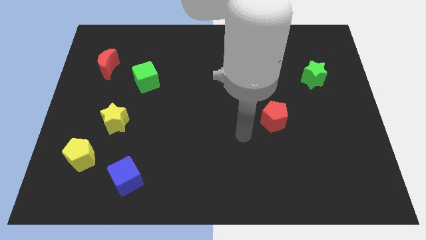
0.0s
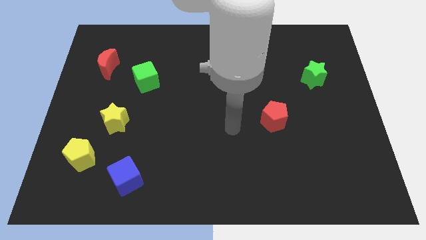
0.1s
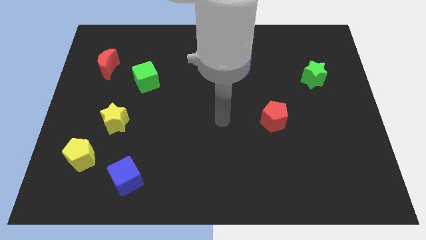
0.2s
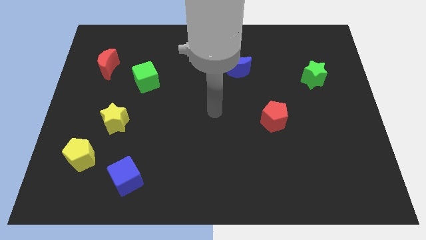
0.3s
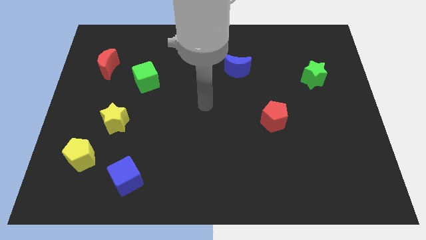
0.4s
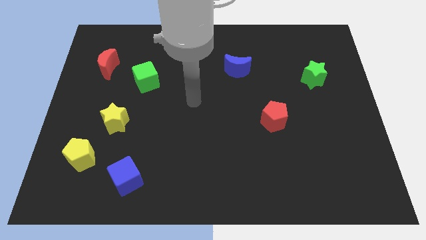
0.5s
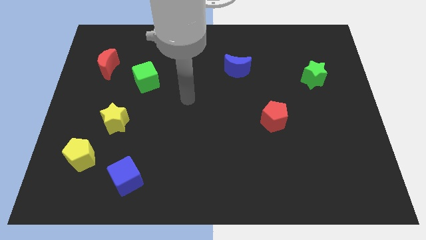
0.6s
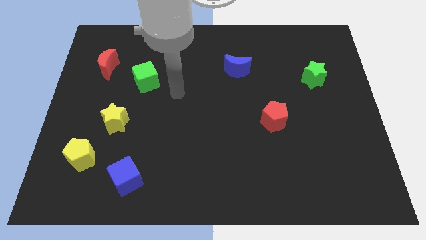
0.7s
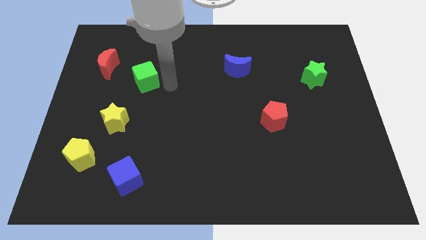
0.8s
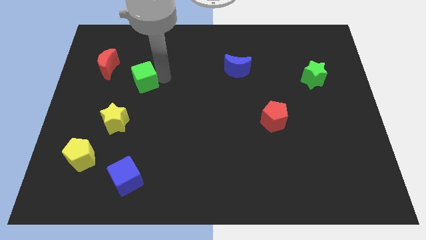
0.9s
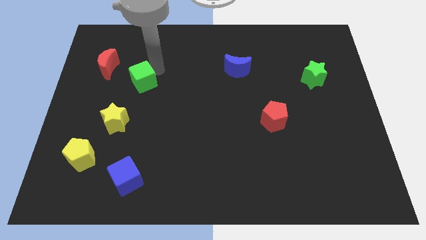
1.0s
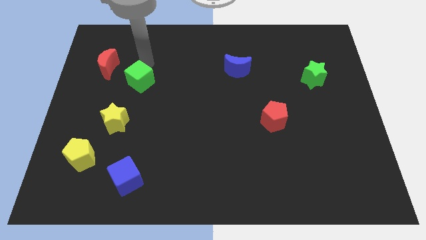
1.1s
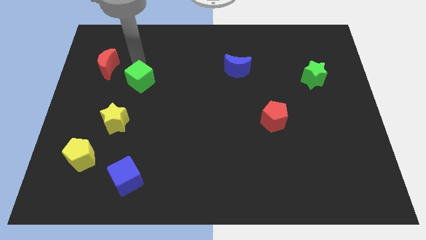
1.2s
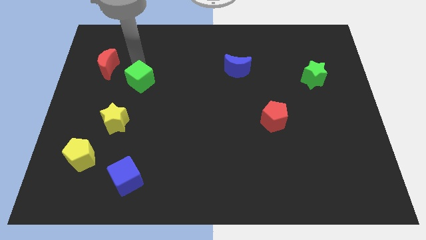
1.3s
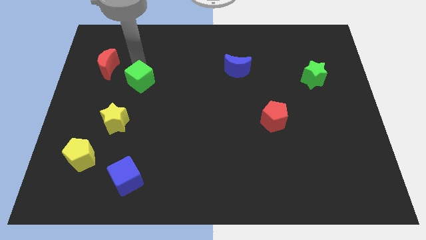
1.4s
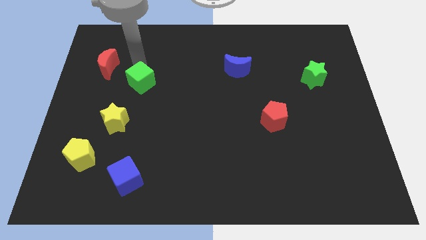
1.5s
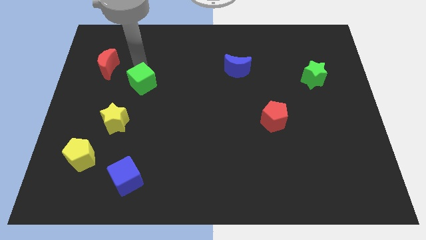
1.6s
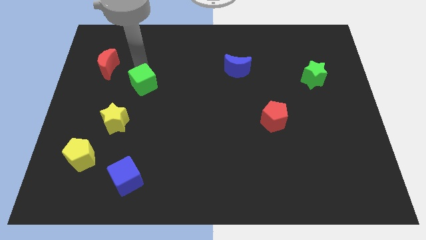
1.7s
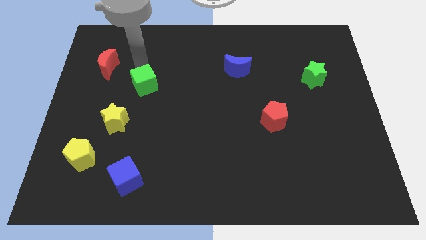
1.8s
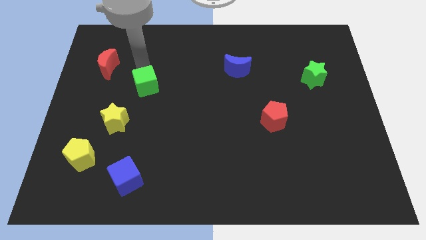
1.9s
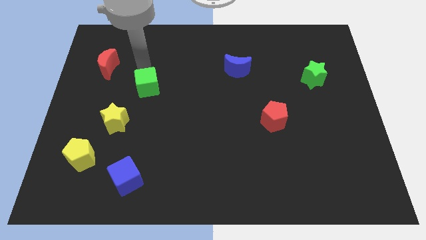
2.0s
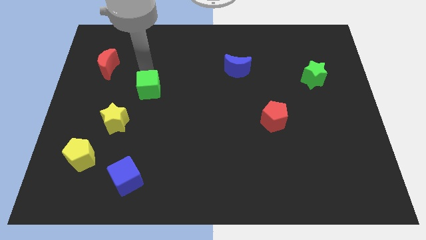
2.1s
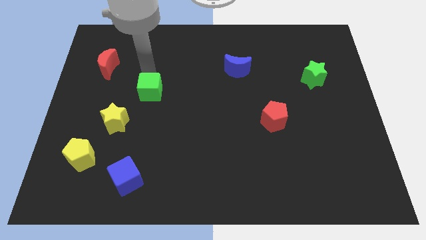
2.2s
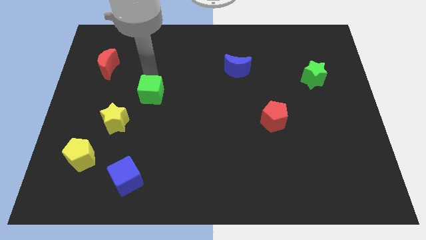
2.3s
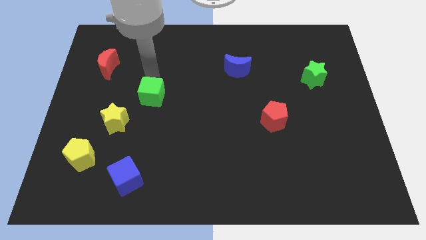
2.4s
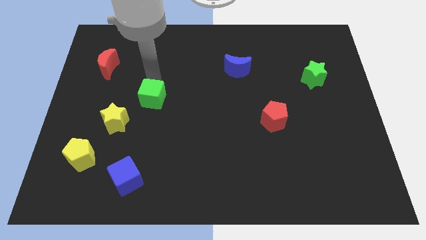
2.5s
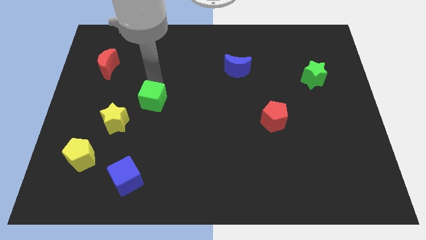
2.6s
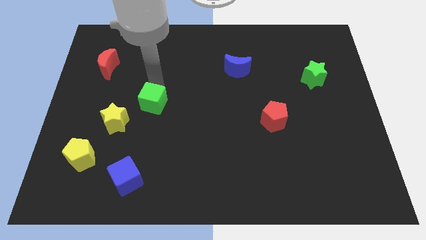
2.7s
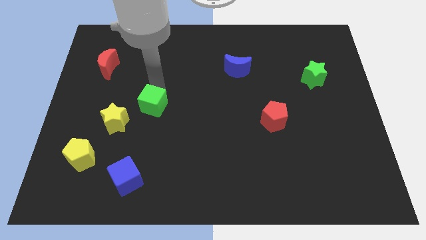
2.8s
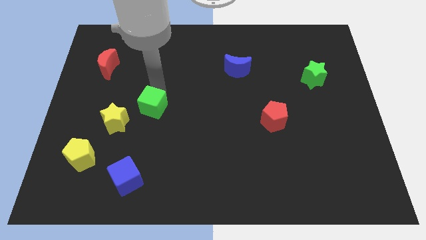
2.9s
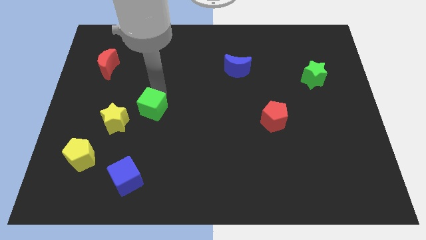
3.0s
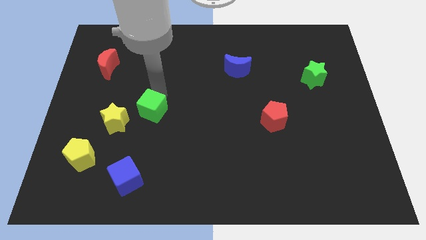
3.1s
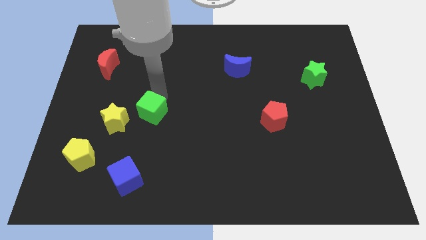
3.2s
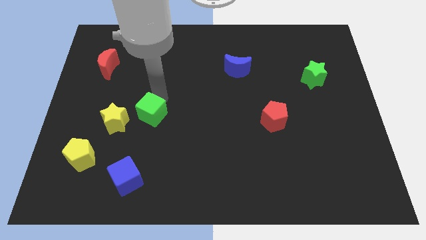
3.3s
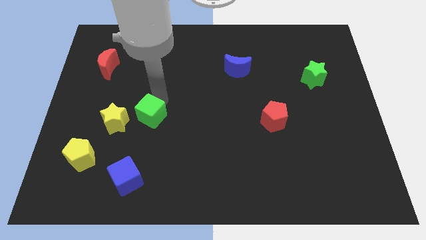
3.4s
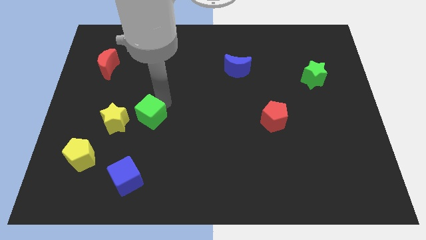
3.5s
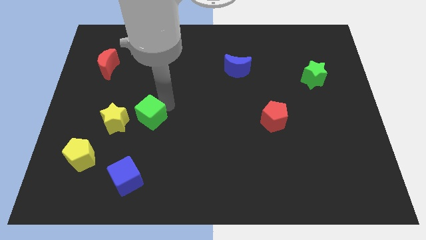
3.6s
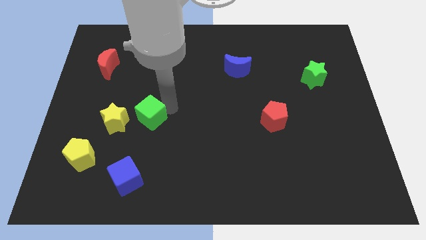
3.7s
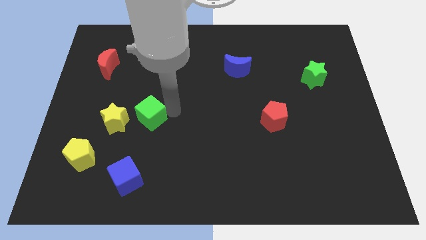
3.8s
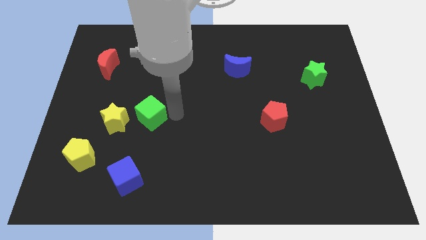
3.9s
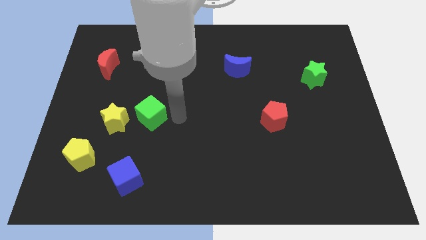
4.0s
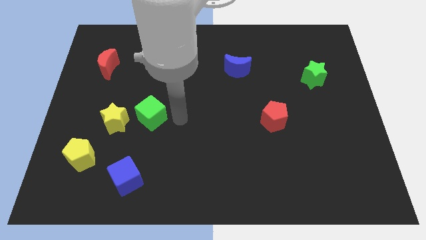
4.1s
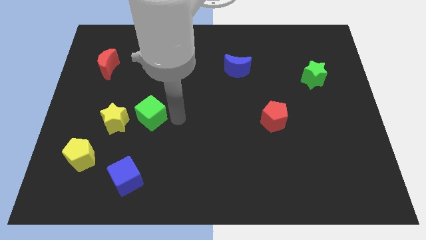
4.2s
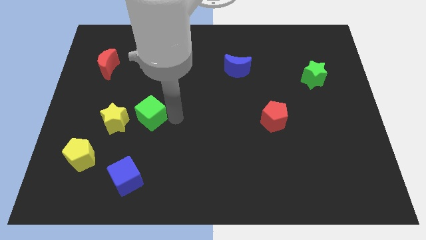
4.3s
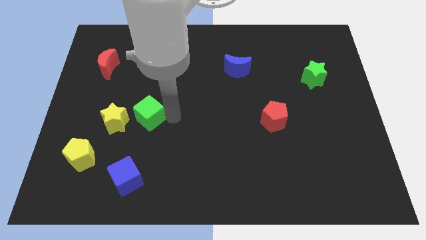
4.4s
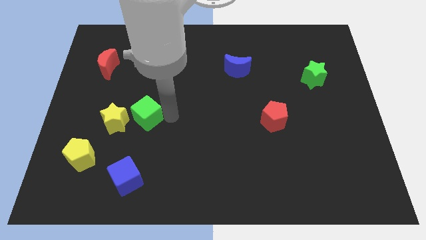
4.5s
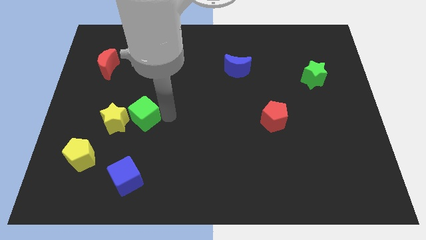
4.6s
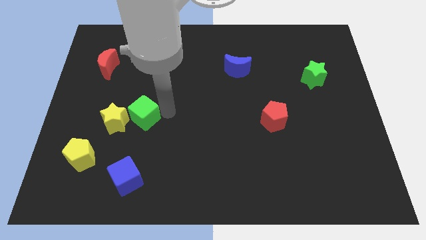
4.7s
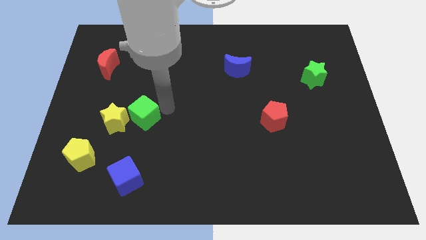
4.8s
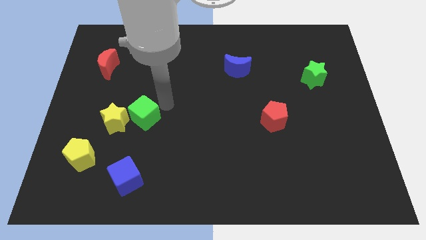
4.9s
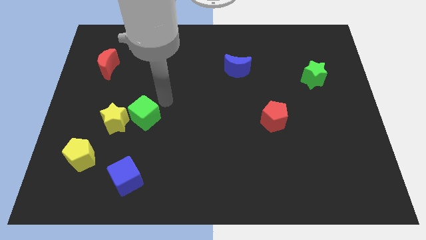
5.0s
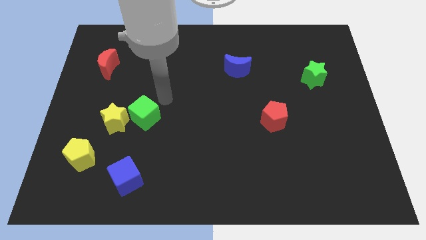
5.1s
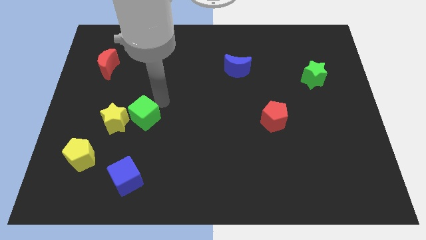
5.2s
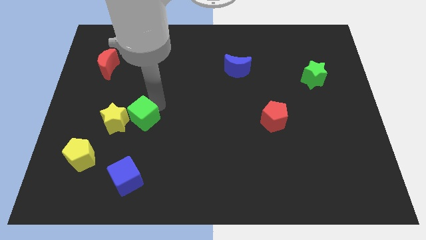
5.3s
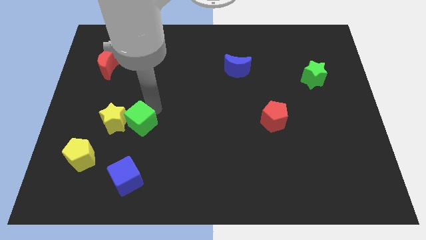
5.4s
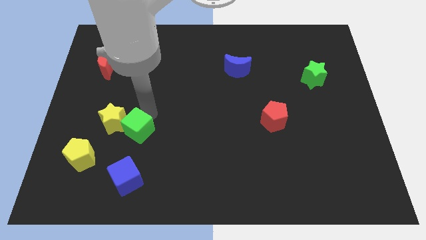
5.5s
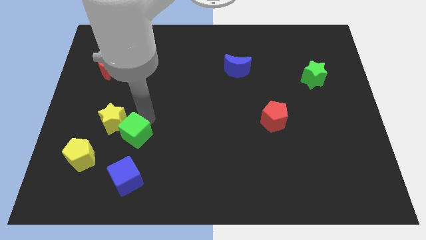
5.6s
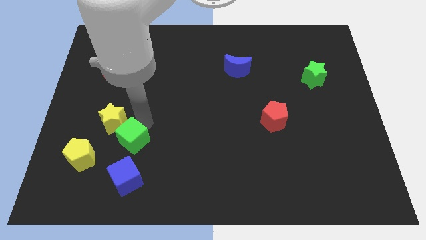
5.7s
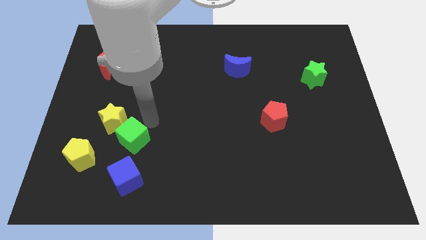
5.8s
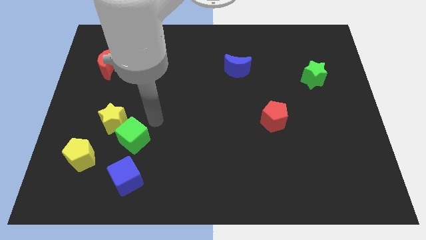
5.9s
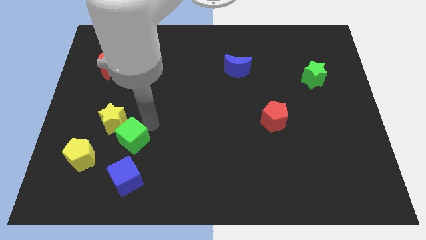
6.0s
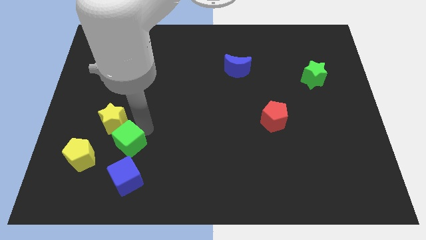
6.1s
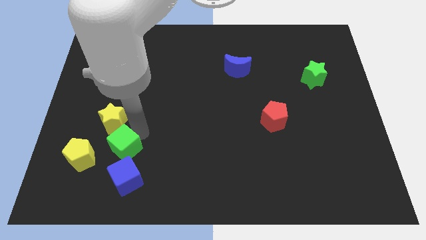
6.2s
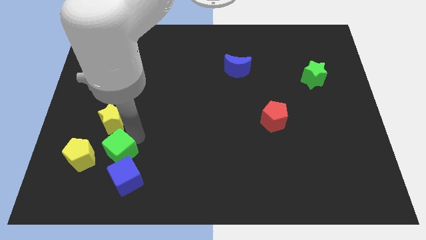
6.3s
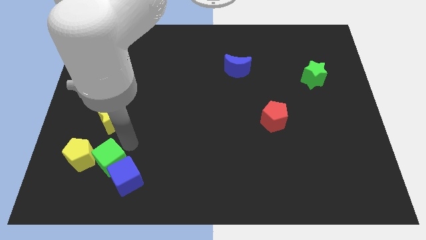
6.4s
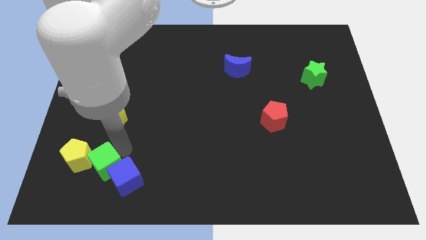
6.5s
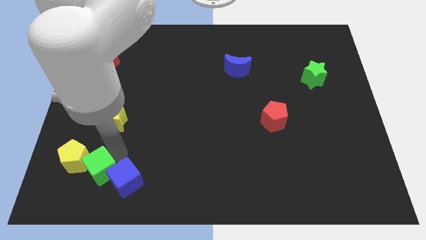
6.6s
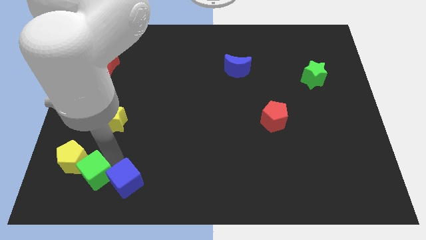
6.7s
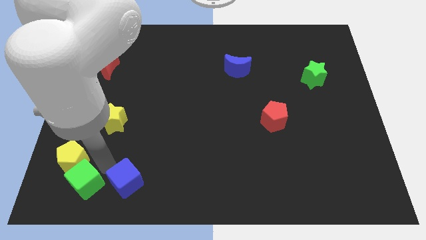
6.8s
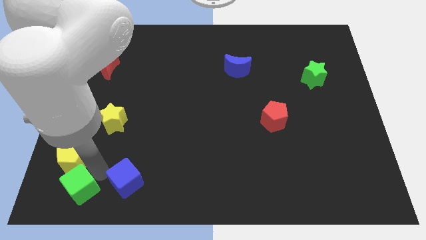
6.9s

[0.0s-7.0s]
slide the green cube to the bottom left corner
